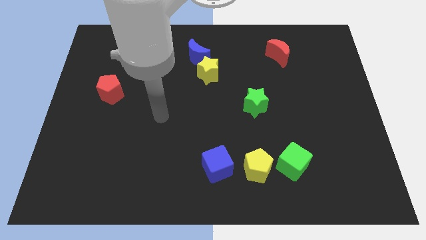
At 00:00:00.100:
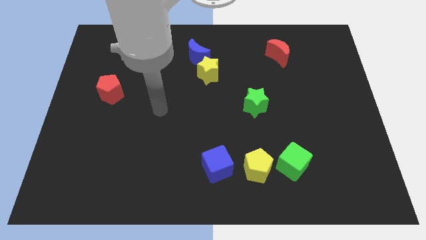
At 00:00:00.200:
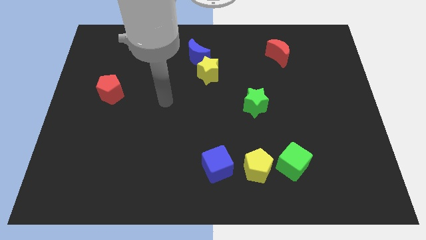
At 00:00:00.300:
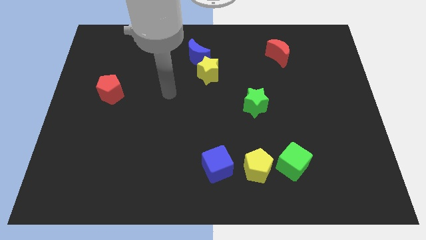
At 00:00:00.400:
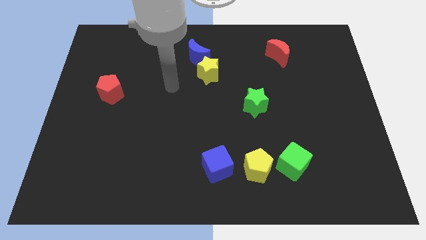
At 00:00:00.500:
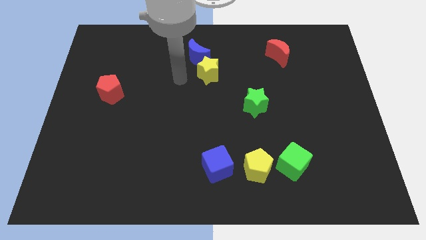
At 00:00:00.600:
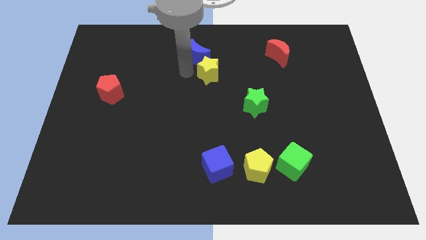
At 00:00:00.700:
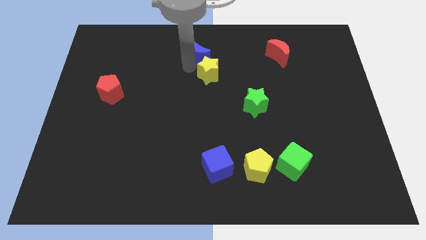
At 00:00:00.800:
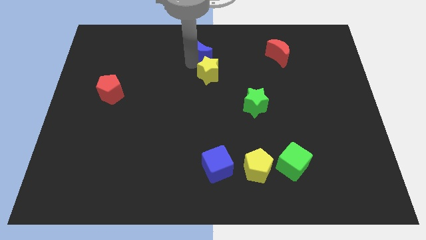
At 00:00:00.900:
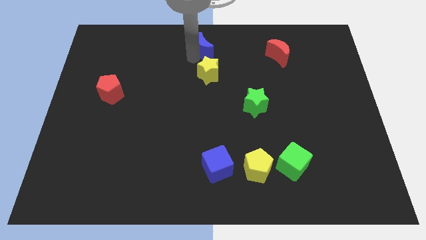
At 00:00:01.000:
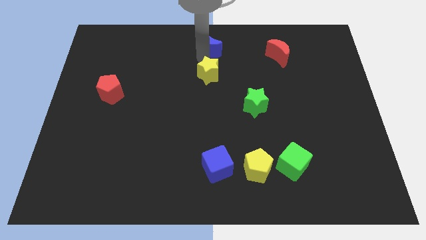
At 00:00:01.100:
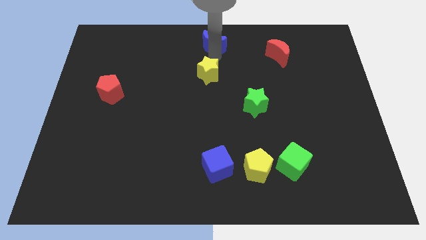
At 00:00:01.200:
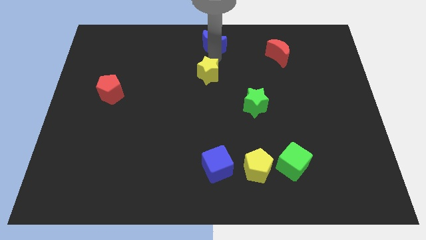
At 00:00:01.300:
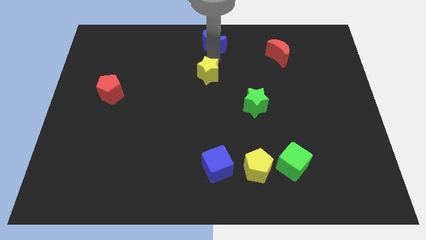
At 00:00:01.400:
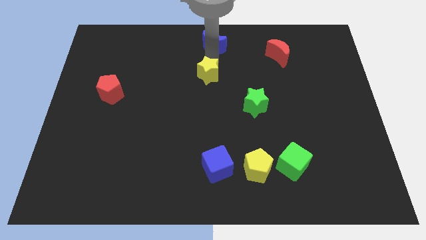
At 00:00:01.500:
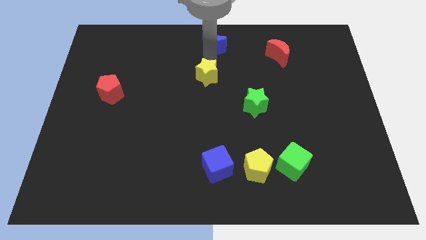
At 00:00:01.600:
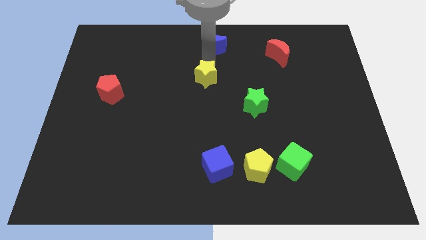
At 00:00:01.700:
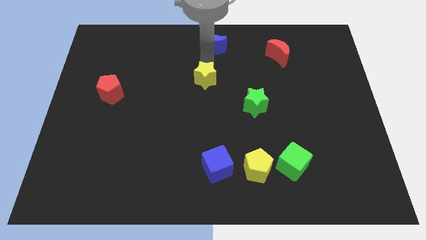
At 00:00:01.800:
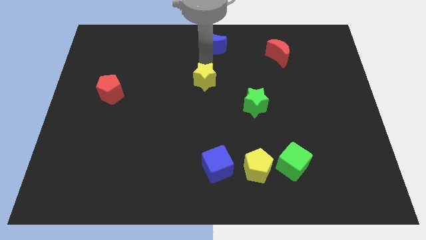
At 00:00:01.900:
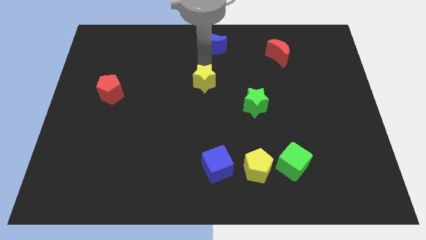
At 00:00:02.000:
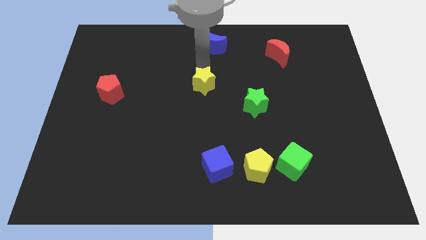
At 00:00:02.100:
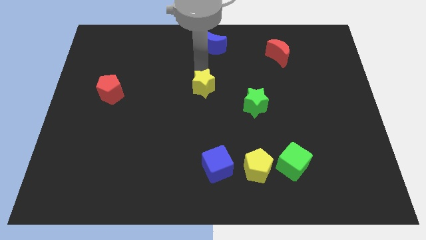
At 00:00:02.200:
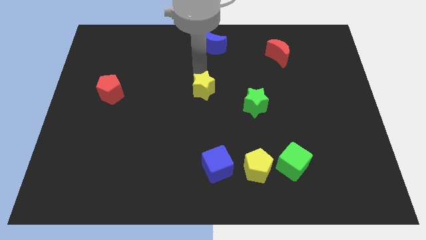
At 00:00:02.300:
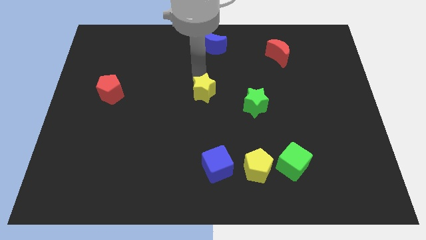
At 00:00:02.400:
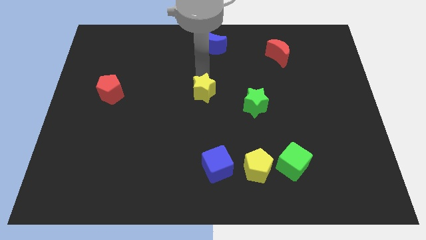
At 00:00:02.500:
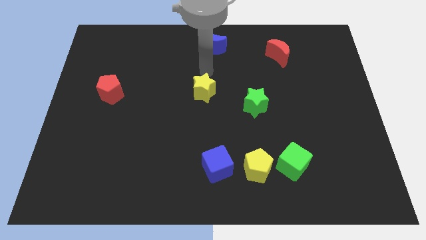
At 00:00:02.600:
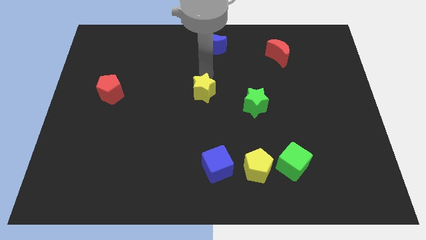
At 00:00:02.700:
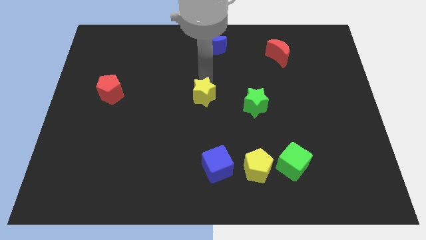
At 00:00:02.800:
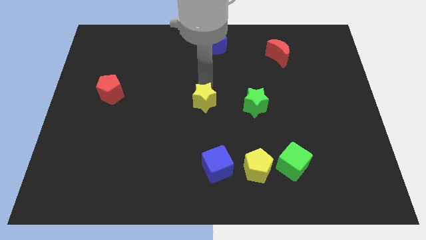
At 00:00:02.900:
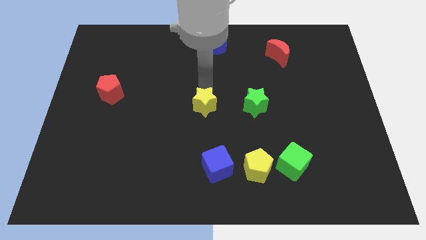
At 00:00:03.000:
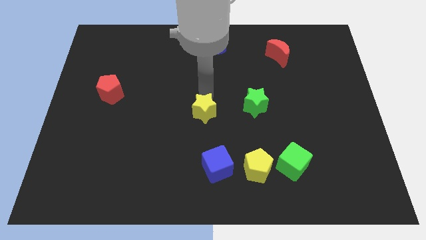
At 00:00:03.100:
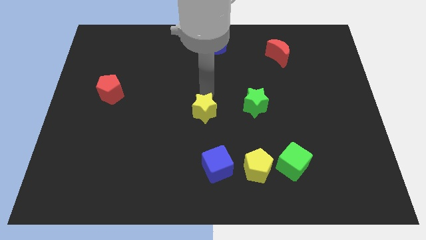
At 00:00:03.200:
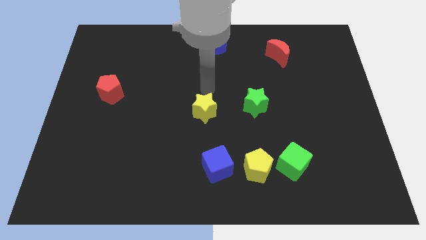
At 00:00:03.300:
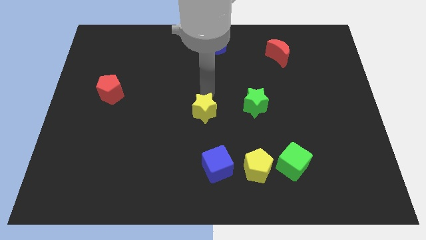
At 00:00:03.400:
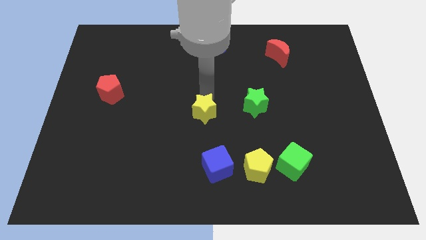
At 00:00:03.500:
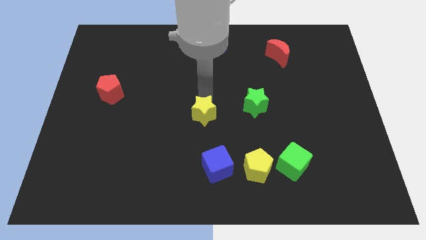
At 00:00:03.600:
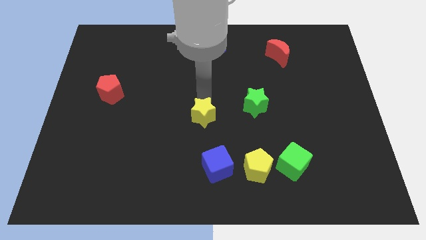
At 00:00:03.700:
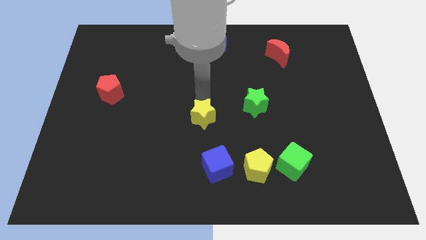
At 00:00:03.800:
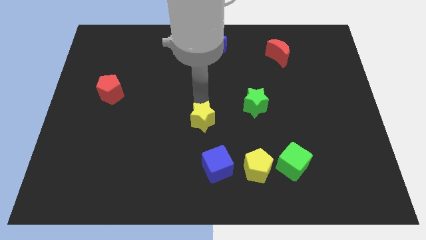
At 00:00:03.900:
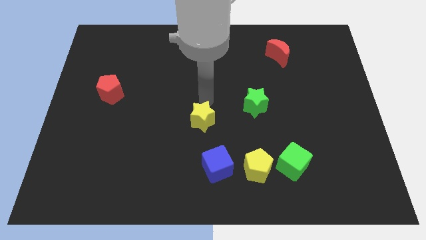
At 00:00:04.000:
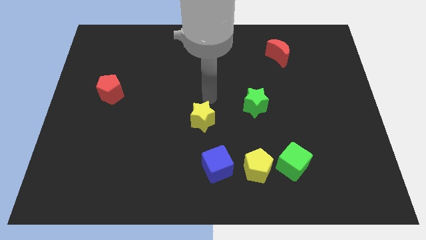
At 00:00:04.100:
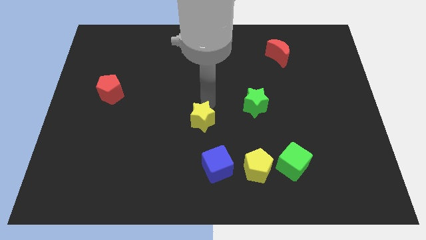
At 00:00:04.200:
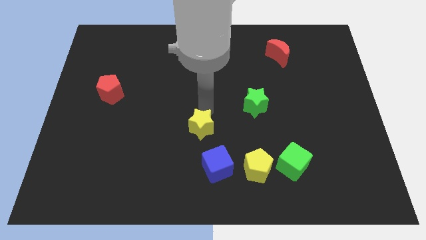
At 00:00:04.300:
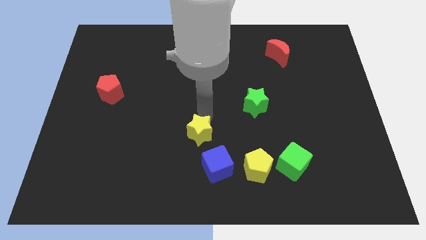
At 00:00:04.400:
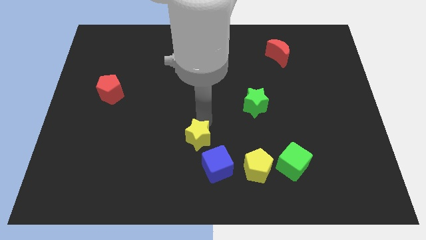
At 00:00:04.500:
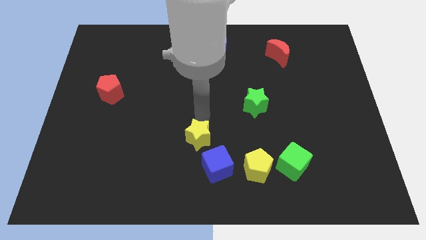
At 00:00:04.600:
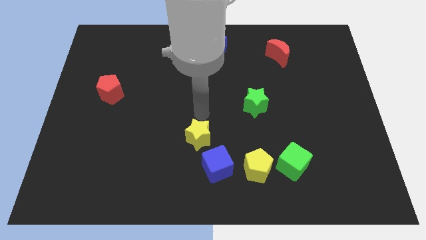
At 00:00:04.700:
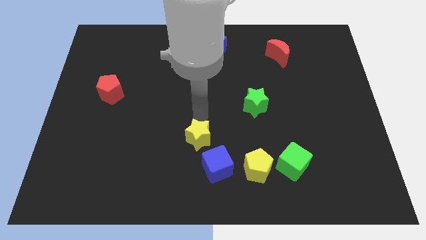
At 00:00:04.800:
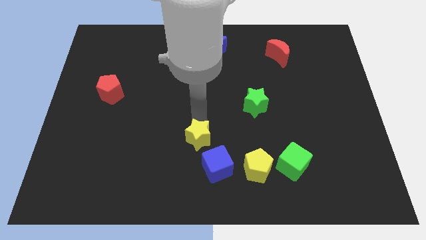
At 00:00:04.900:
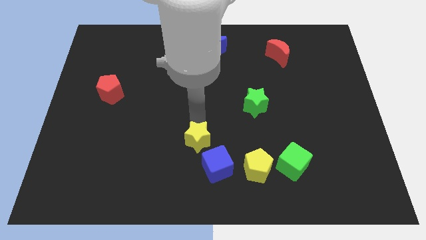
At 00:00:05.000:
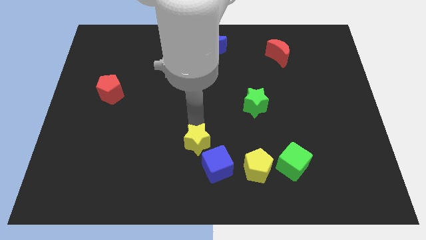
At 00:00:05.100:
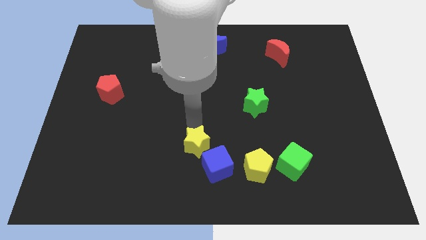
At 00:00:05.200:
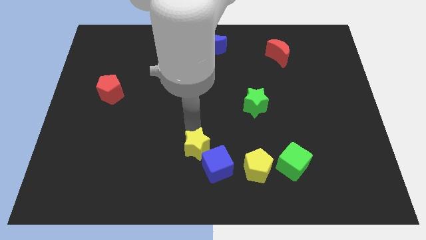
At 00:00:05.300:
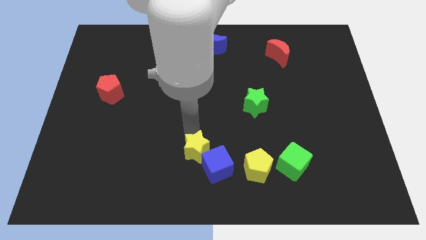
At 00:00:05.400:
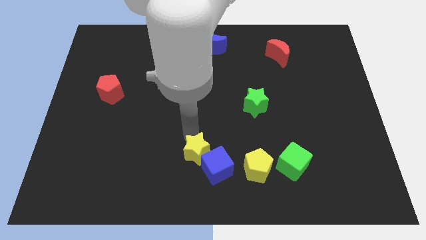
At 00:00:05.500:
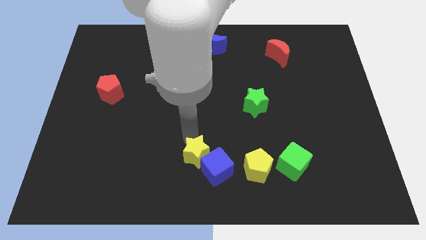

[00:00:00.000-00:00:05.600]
push the yellow star to the bottom

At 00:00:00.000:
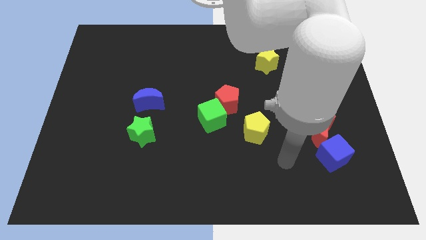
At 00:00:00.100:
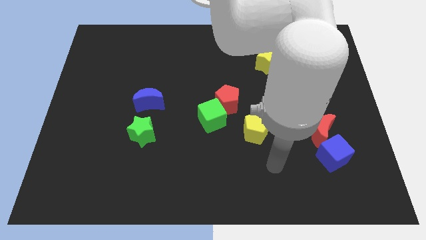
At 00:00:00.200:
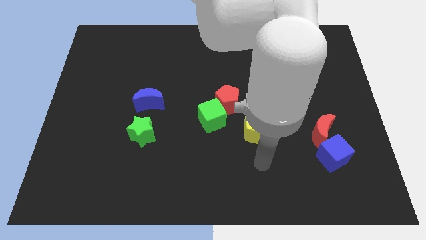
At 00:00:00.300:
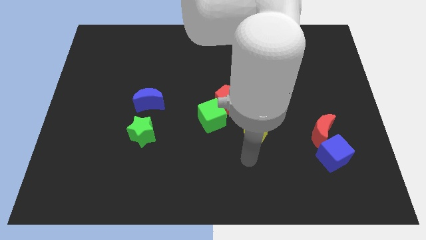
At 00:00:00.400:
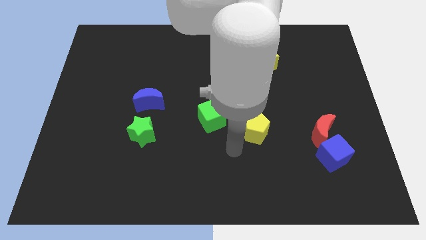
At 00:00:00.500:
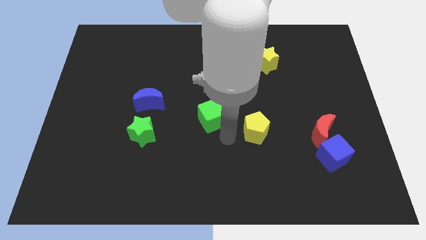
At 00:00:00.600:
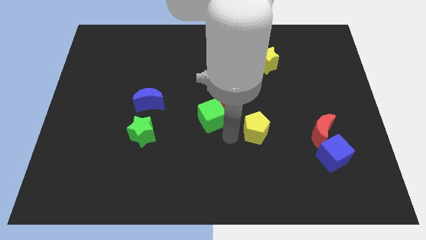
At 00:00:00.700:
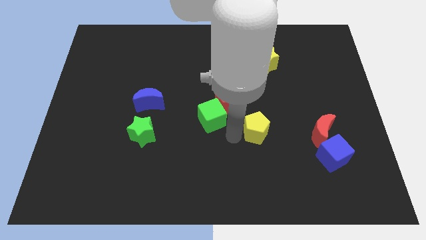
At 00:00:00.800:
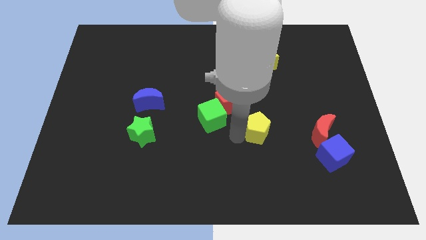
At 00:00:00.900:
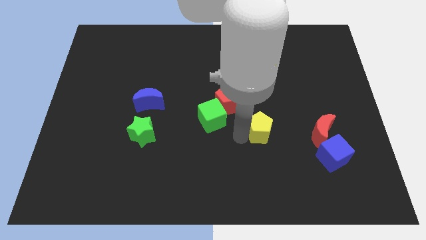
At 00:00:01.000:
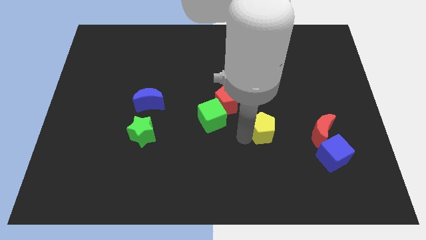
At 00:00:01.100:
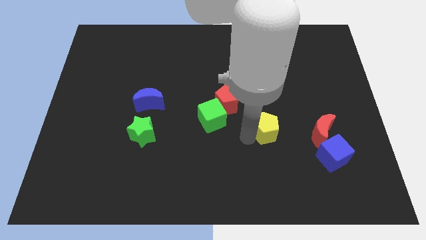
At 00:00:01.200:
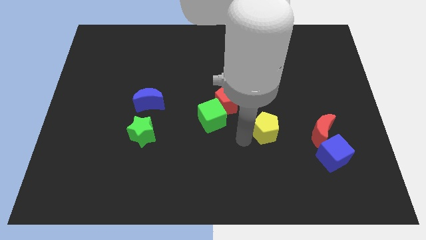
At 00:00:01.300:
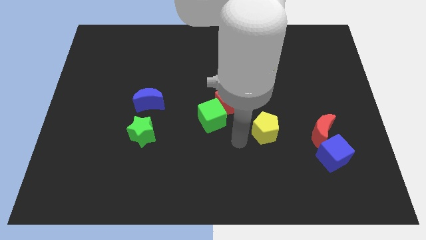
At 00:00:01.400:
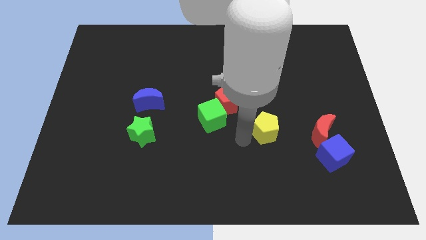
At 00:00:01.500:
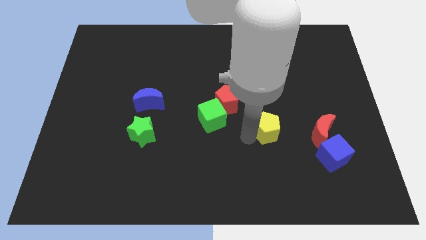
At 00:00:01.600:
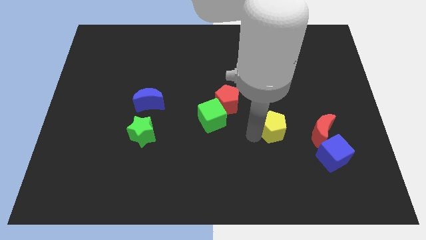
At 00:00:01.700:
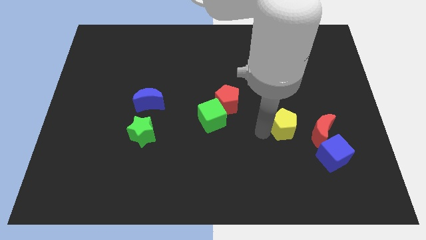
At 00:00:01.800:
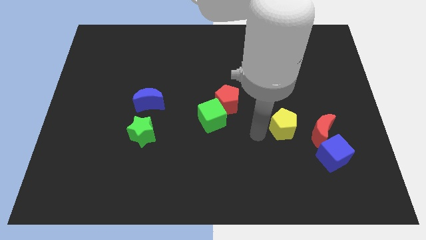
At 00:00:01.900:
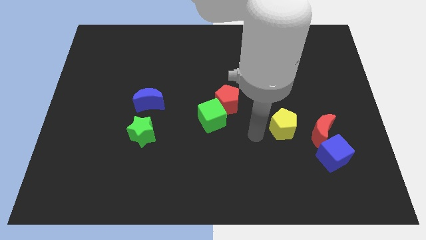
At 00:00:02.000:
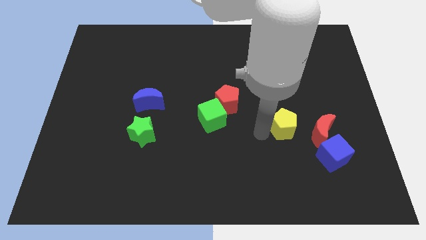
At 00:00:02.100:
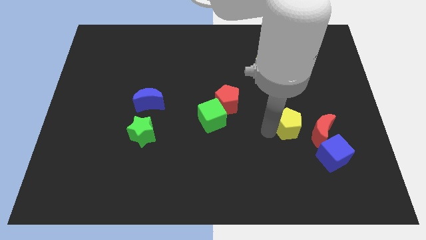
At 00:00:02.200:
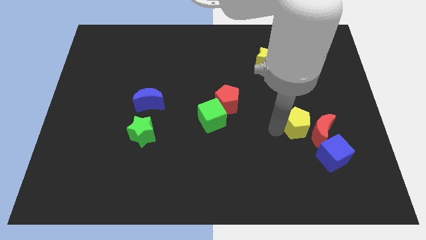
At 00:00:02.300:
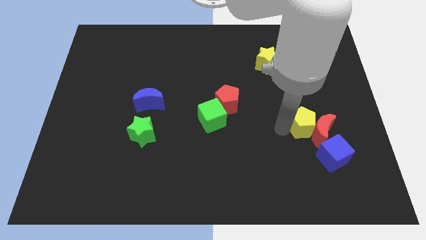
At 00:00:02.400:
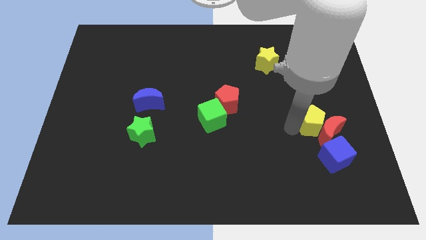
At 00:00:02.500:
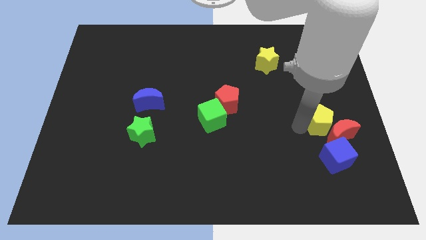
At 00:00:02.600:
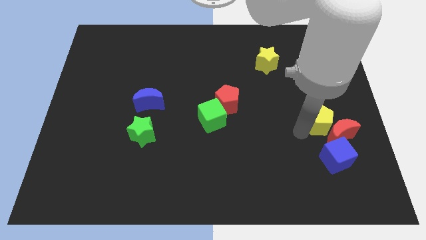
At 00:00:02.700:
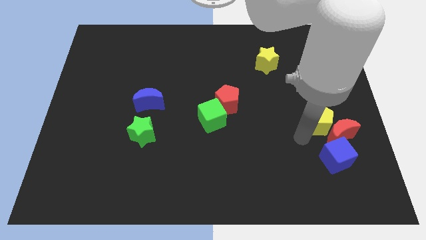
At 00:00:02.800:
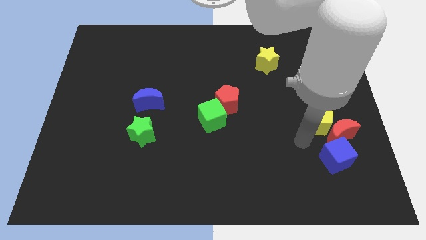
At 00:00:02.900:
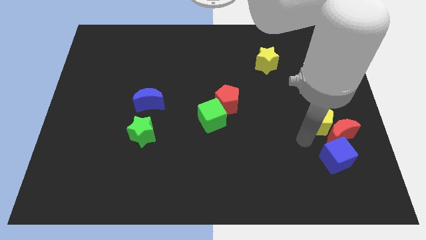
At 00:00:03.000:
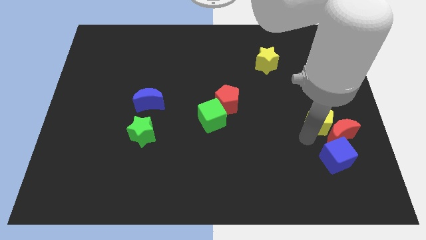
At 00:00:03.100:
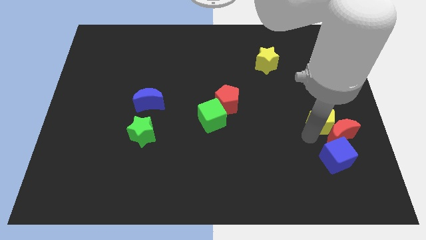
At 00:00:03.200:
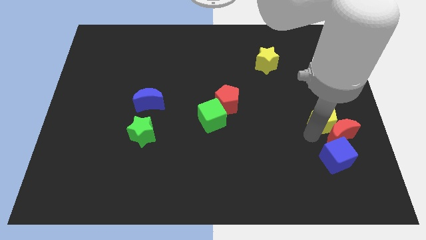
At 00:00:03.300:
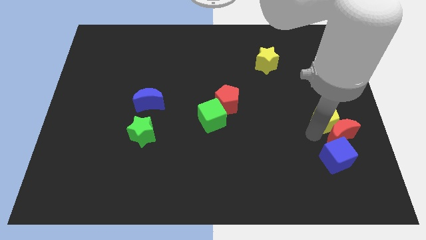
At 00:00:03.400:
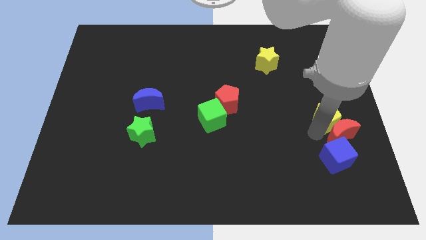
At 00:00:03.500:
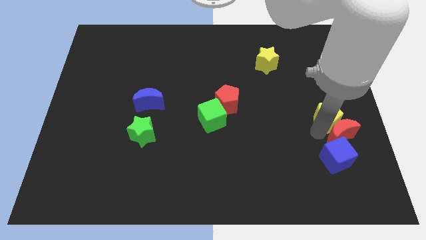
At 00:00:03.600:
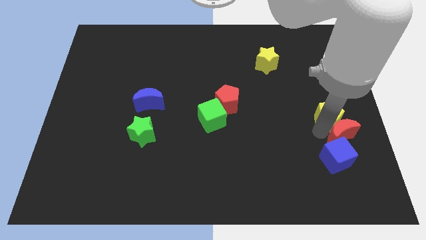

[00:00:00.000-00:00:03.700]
slide the yellow pentagon to the center right
